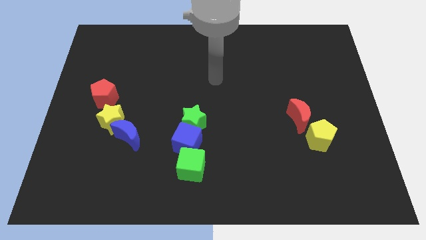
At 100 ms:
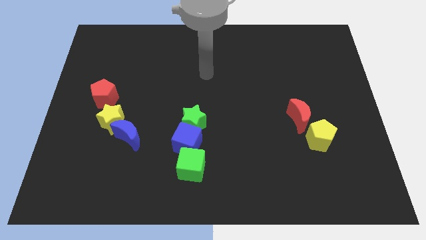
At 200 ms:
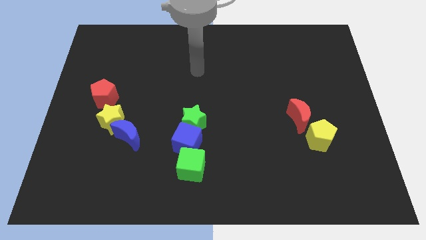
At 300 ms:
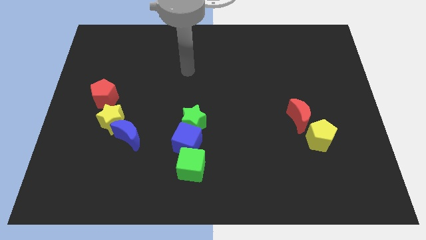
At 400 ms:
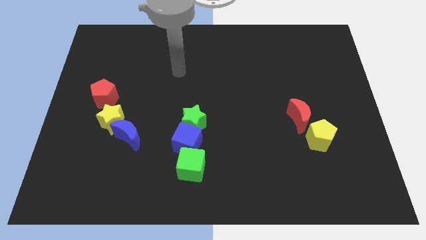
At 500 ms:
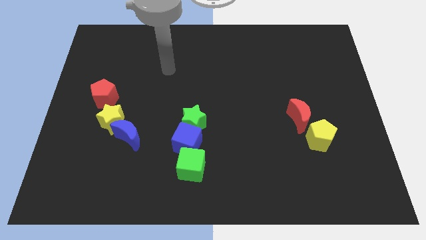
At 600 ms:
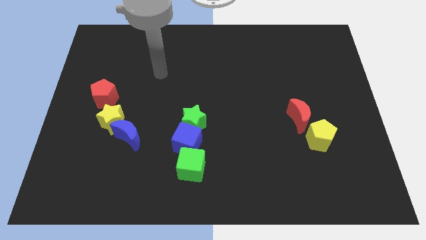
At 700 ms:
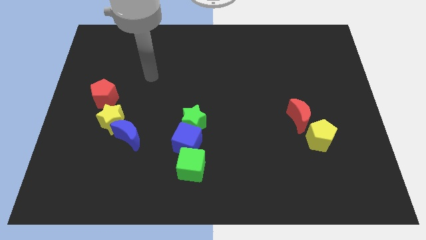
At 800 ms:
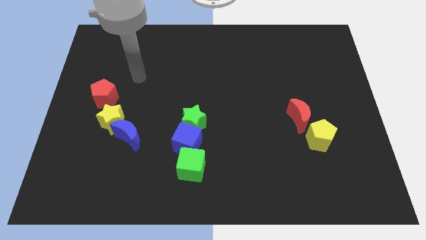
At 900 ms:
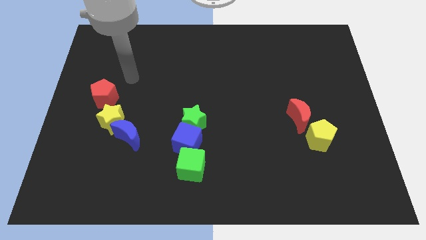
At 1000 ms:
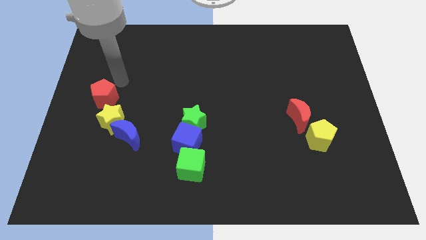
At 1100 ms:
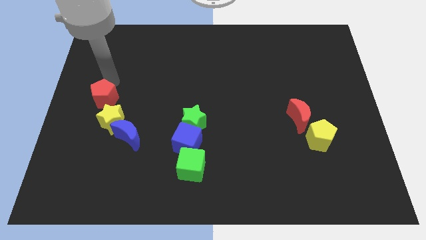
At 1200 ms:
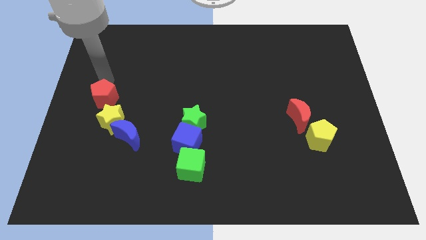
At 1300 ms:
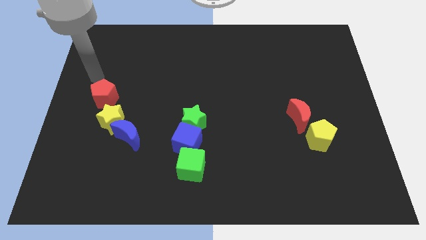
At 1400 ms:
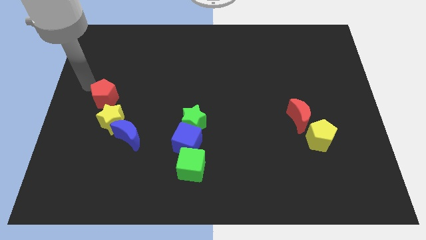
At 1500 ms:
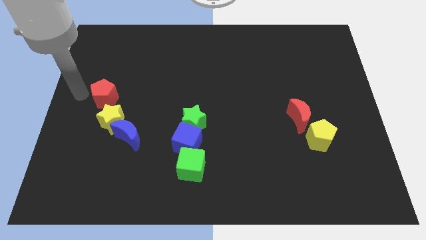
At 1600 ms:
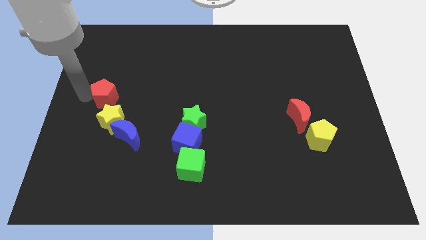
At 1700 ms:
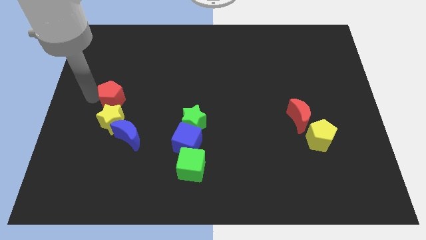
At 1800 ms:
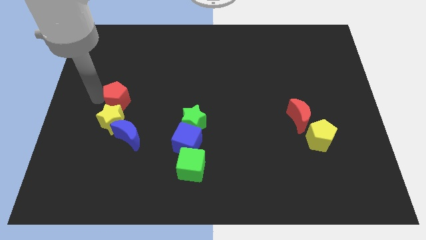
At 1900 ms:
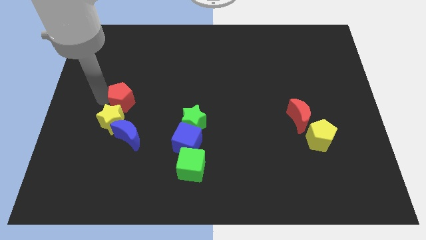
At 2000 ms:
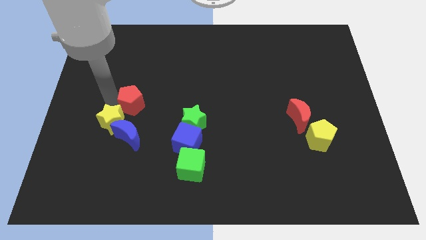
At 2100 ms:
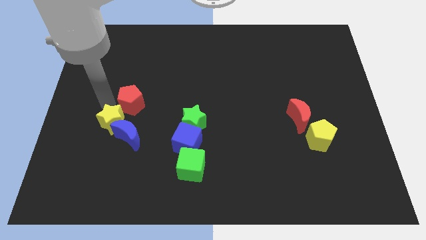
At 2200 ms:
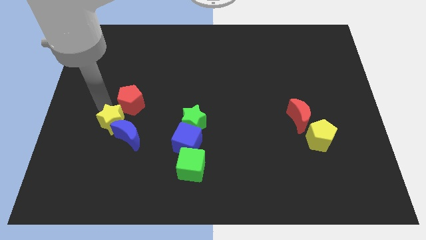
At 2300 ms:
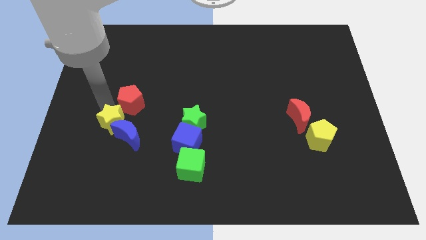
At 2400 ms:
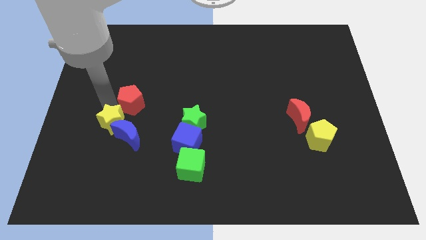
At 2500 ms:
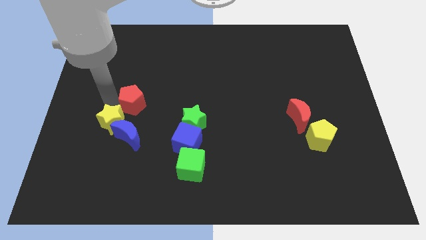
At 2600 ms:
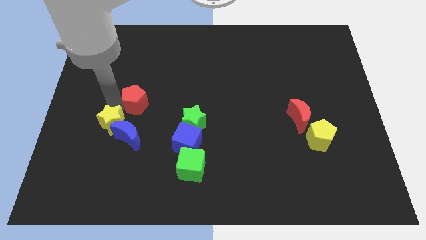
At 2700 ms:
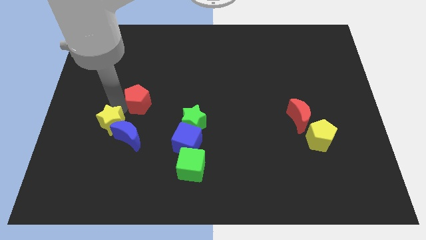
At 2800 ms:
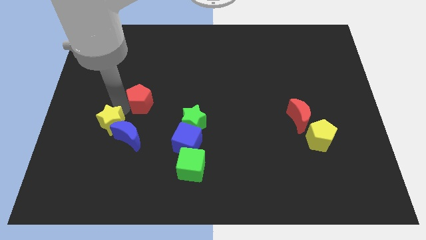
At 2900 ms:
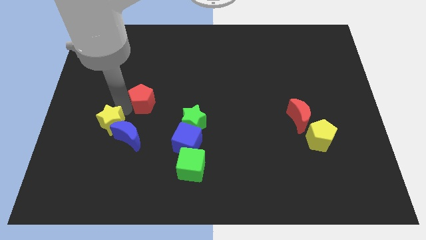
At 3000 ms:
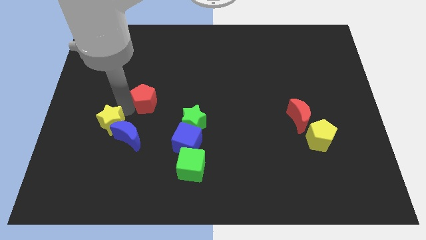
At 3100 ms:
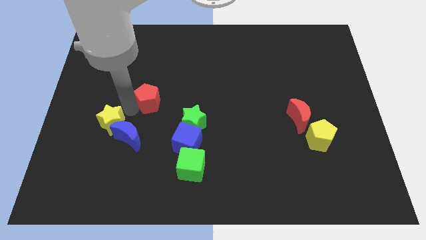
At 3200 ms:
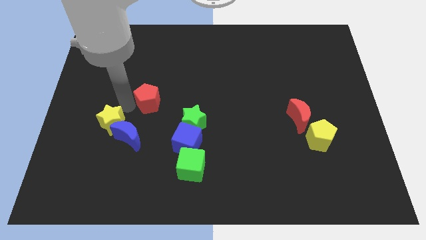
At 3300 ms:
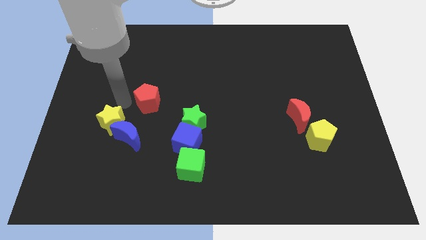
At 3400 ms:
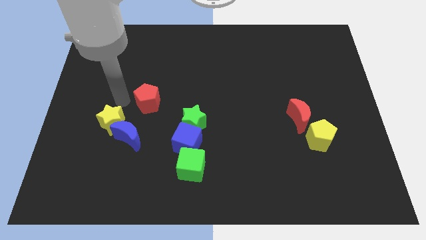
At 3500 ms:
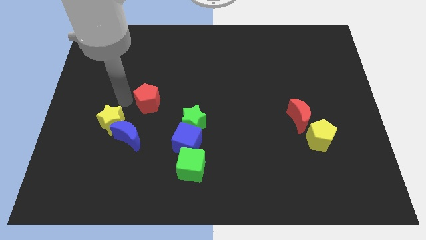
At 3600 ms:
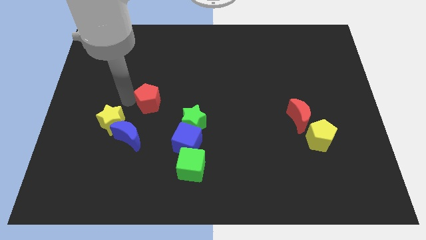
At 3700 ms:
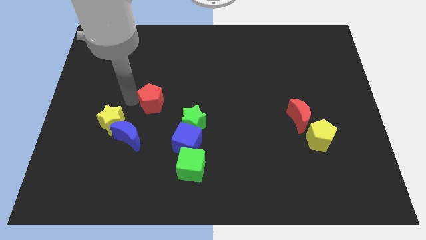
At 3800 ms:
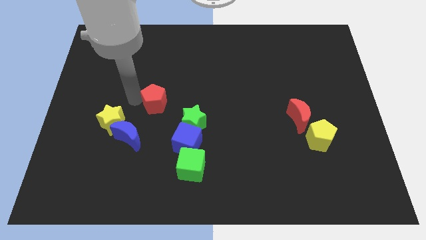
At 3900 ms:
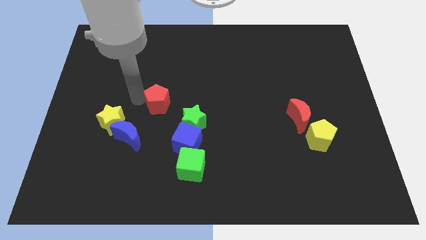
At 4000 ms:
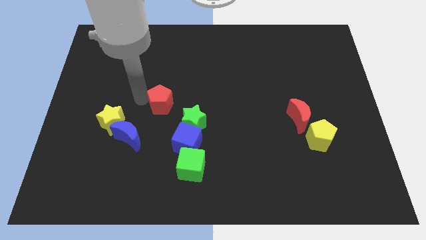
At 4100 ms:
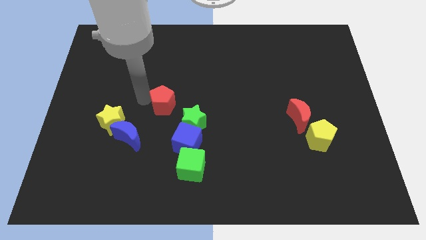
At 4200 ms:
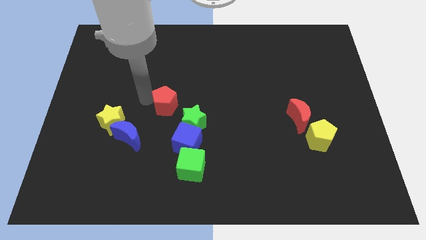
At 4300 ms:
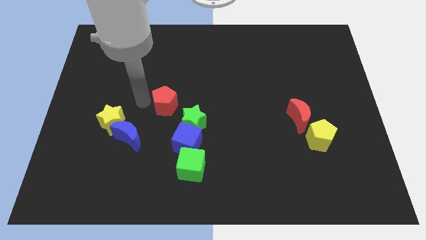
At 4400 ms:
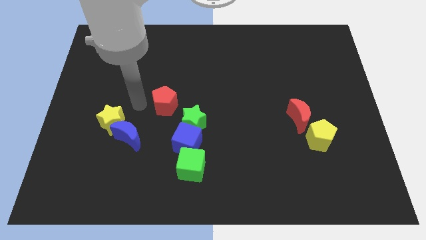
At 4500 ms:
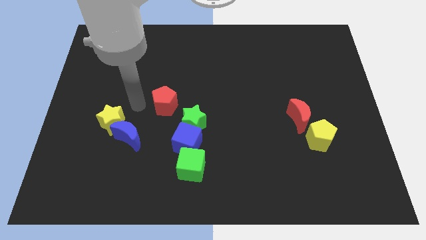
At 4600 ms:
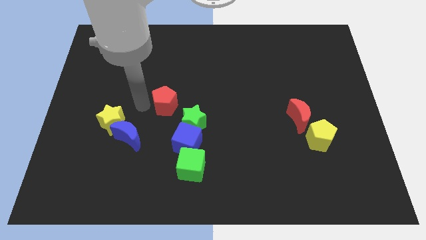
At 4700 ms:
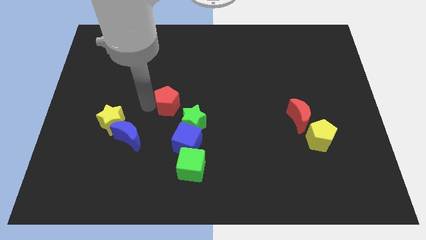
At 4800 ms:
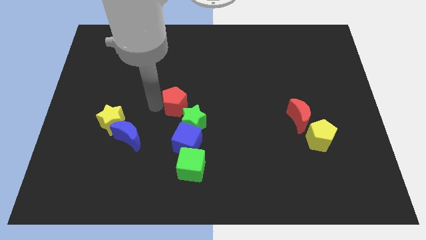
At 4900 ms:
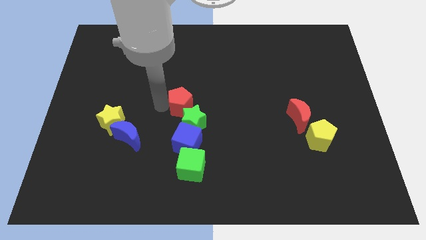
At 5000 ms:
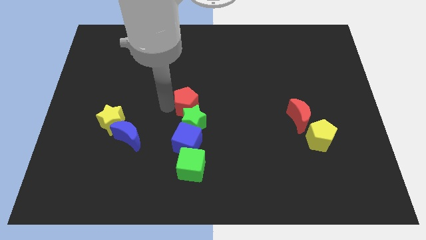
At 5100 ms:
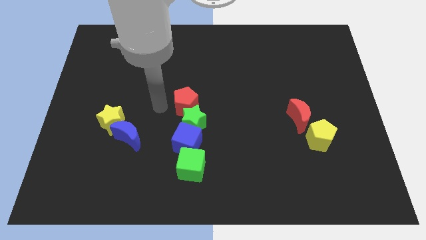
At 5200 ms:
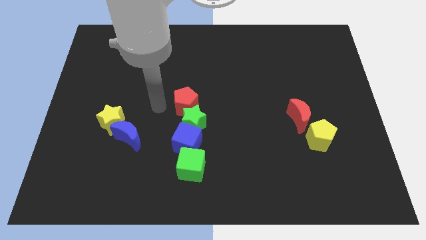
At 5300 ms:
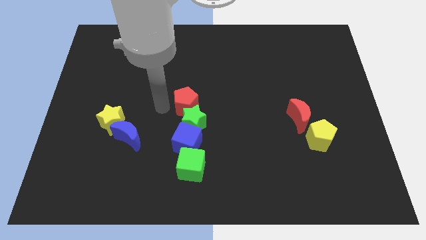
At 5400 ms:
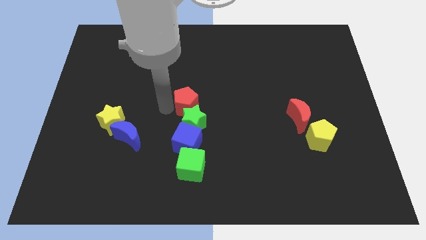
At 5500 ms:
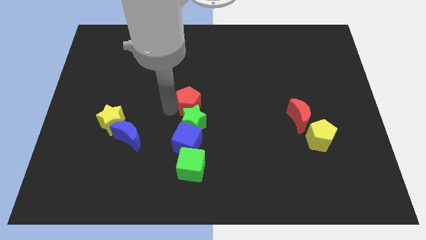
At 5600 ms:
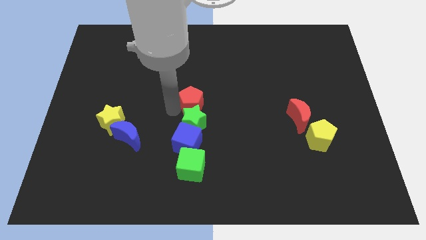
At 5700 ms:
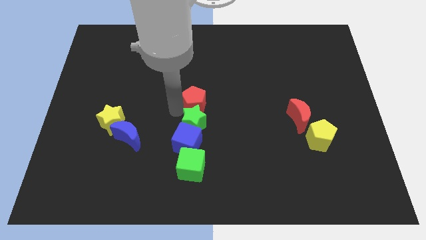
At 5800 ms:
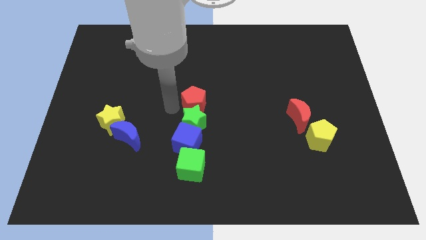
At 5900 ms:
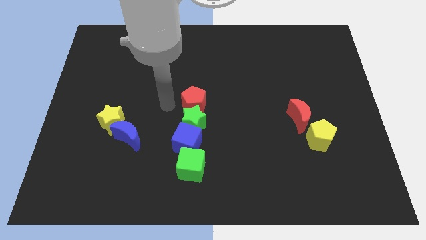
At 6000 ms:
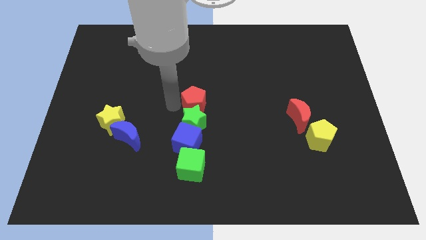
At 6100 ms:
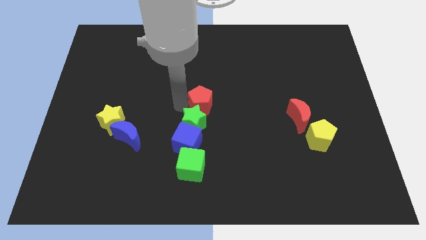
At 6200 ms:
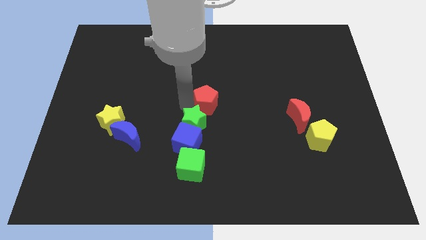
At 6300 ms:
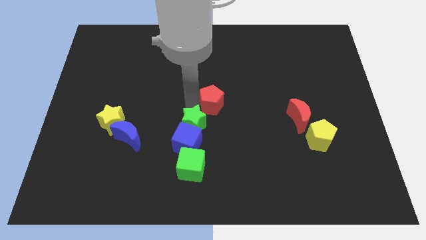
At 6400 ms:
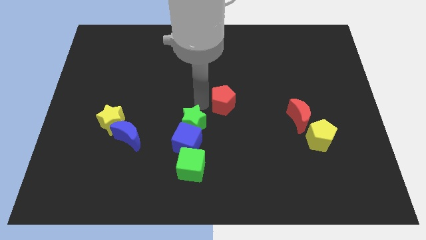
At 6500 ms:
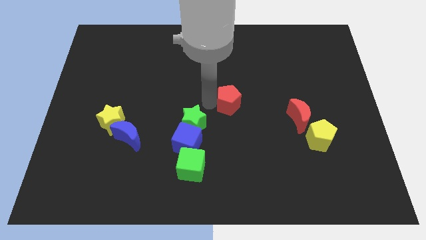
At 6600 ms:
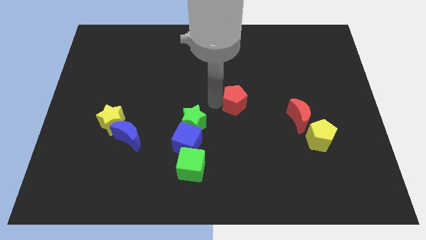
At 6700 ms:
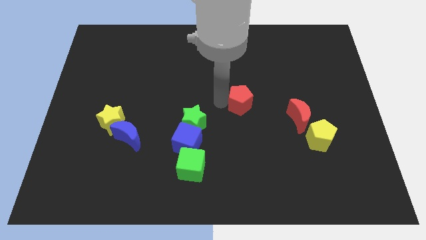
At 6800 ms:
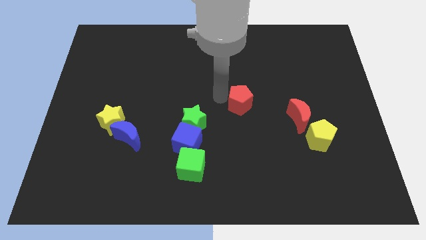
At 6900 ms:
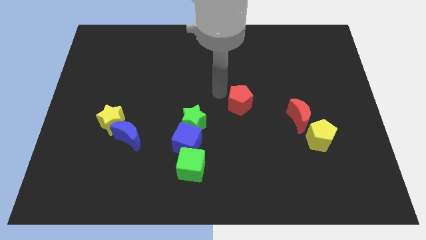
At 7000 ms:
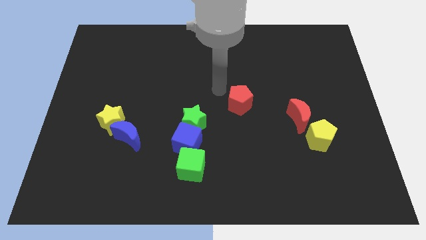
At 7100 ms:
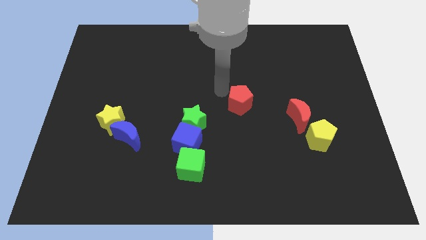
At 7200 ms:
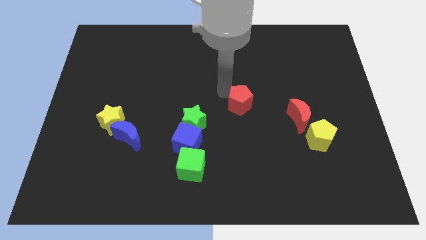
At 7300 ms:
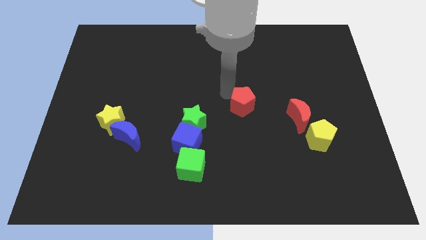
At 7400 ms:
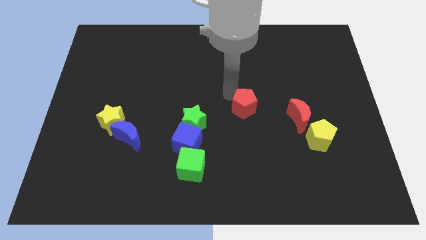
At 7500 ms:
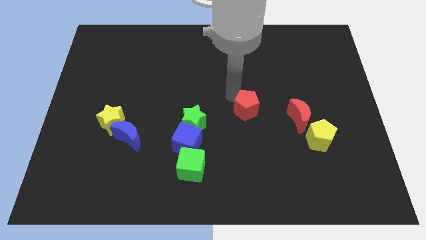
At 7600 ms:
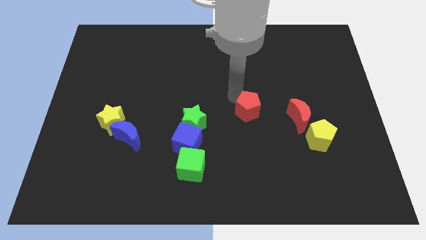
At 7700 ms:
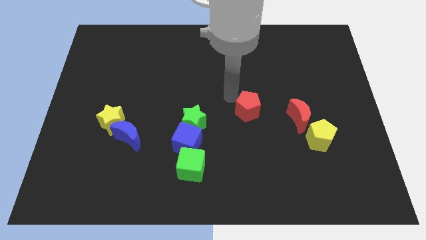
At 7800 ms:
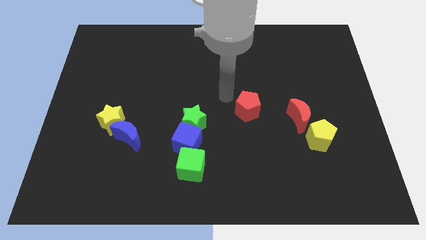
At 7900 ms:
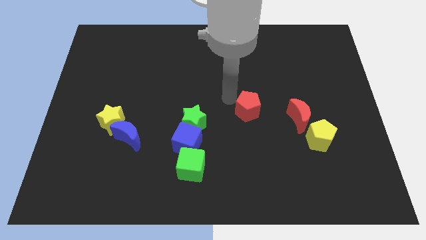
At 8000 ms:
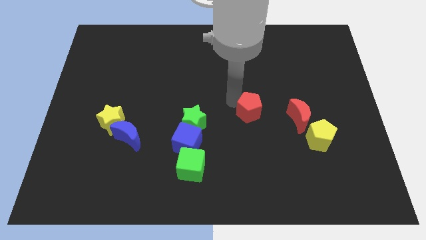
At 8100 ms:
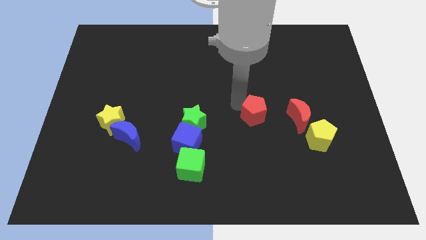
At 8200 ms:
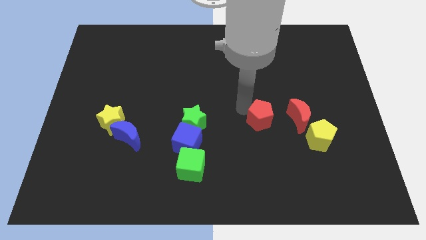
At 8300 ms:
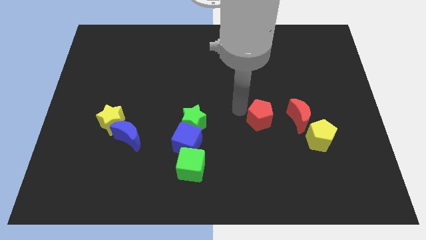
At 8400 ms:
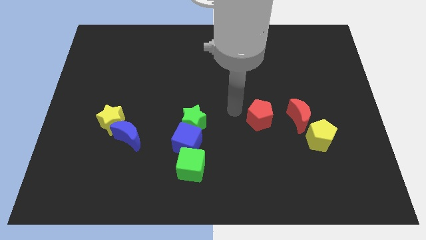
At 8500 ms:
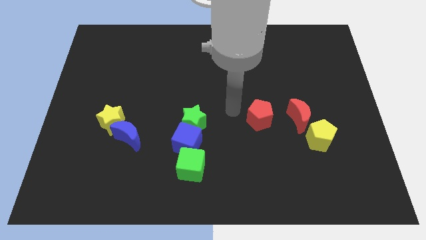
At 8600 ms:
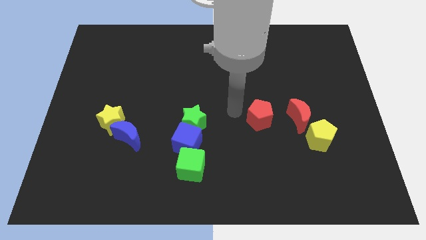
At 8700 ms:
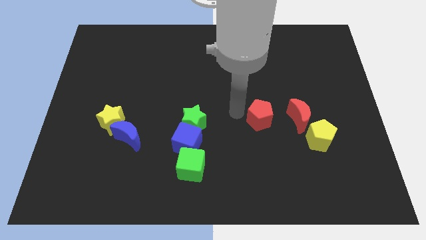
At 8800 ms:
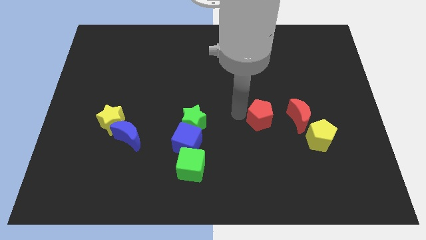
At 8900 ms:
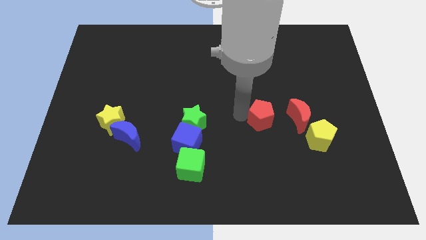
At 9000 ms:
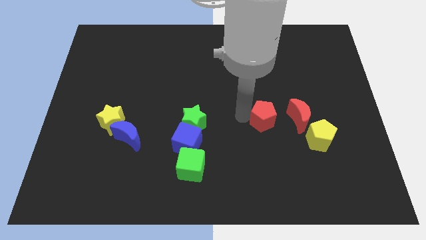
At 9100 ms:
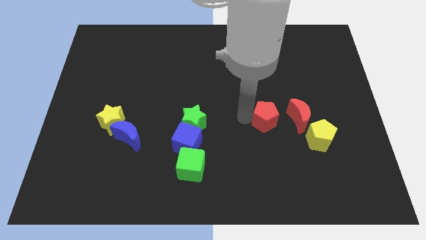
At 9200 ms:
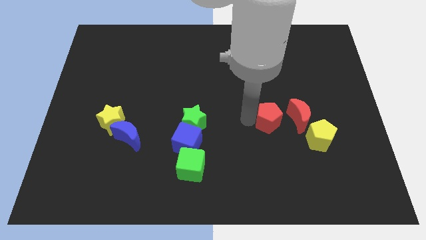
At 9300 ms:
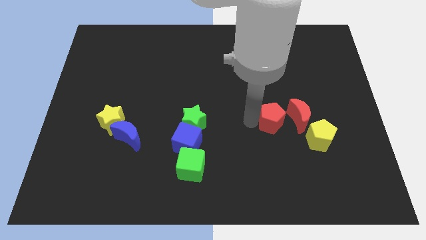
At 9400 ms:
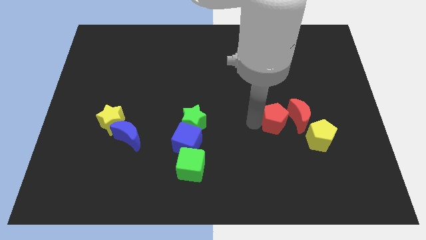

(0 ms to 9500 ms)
move the red pentagon to the red moon
